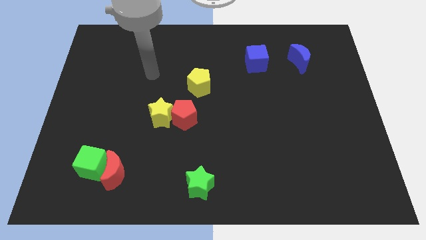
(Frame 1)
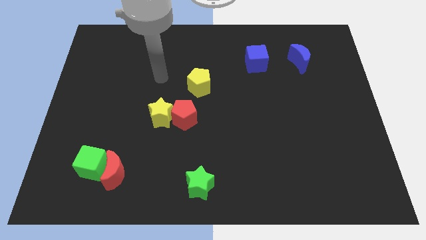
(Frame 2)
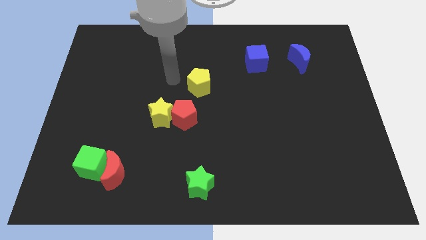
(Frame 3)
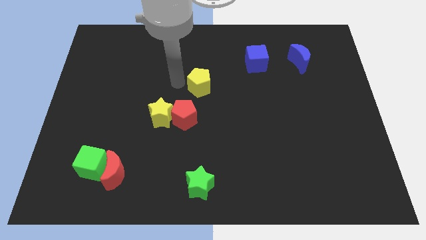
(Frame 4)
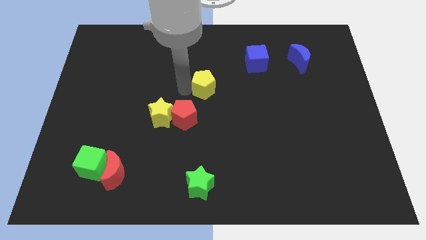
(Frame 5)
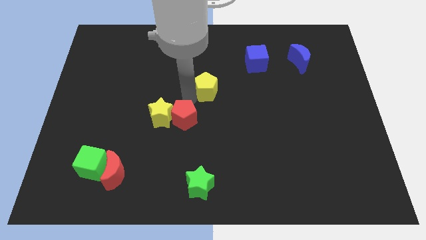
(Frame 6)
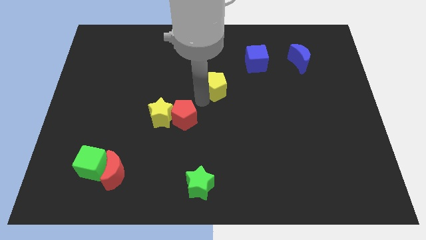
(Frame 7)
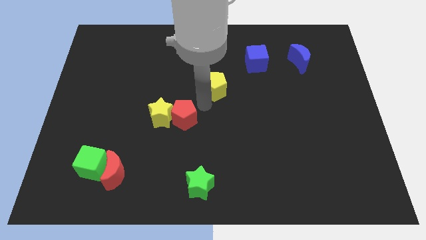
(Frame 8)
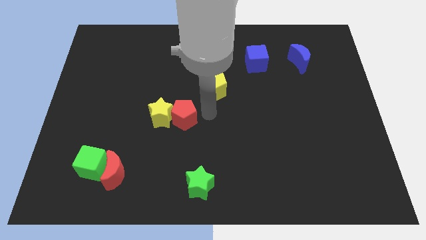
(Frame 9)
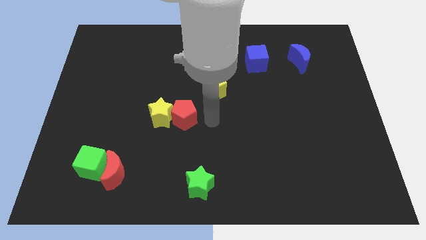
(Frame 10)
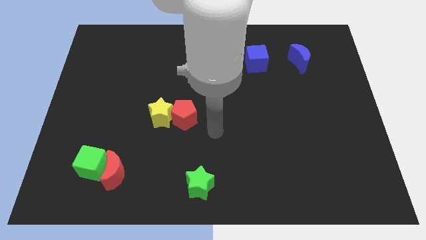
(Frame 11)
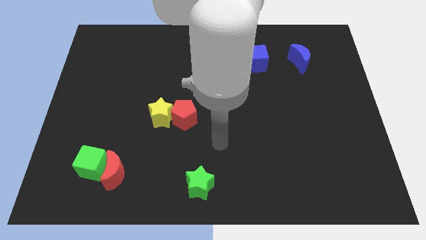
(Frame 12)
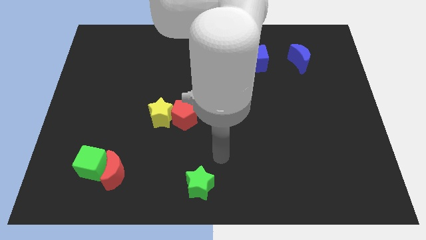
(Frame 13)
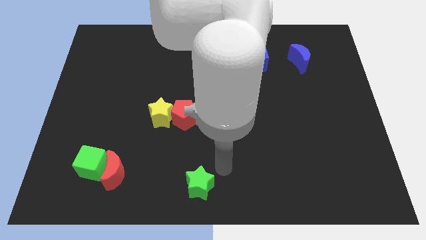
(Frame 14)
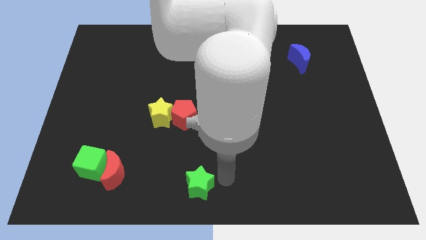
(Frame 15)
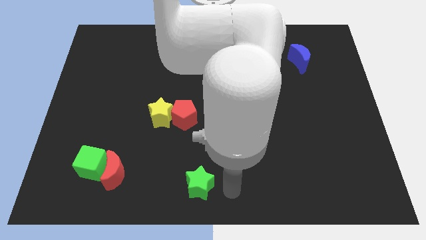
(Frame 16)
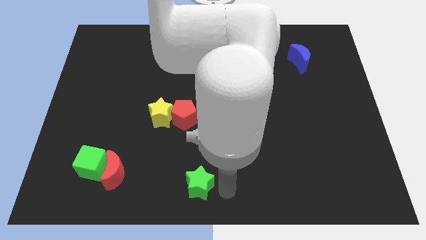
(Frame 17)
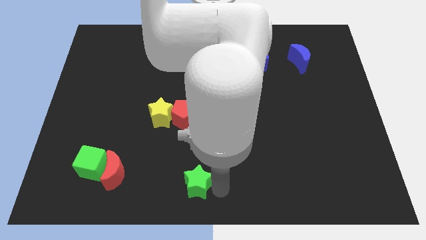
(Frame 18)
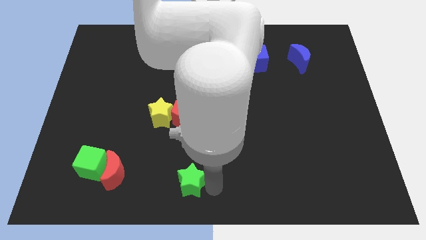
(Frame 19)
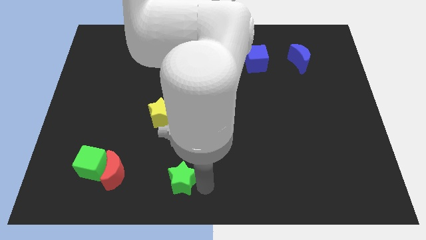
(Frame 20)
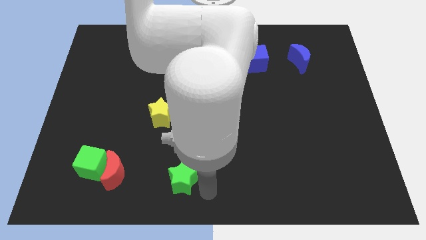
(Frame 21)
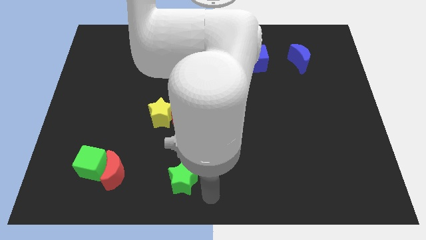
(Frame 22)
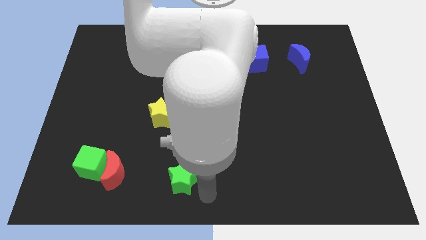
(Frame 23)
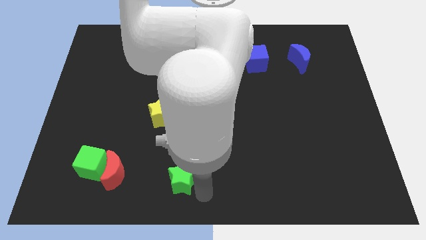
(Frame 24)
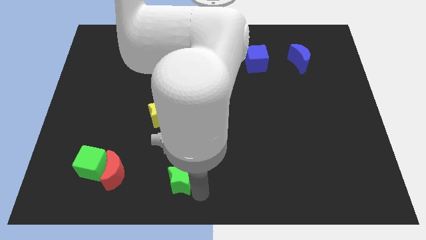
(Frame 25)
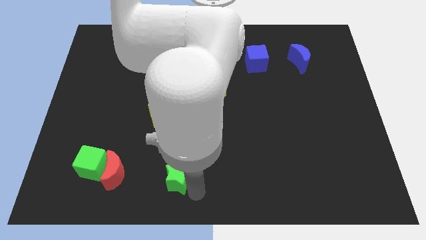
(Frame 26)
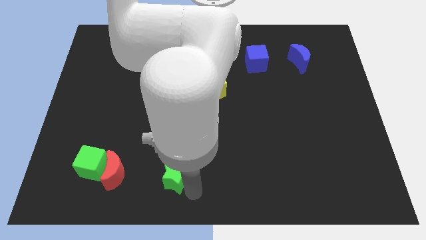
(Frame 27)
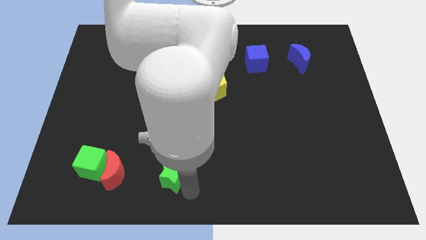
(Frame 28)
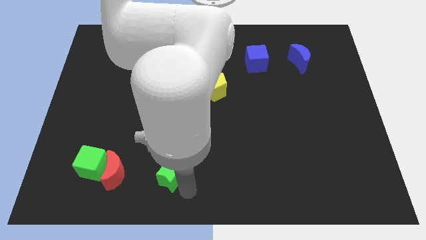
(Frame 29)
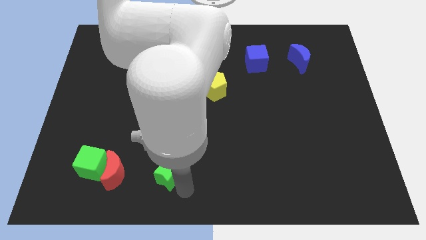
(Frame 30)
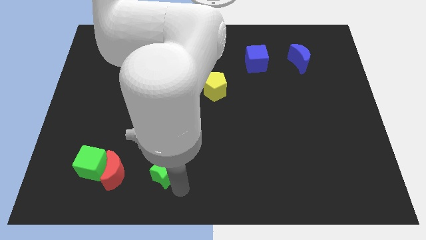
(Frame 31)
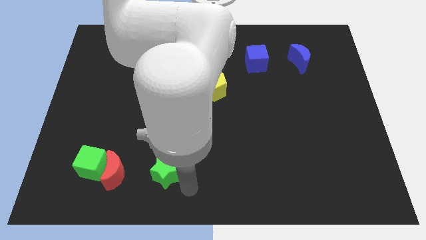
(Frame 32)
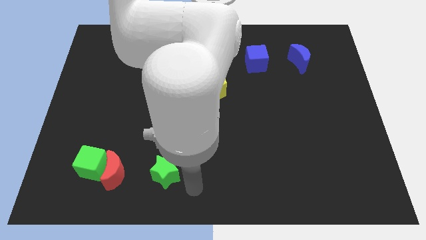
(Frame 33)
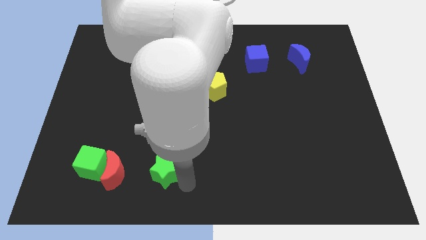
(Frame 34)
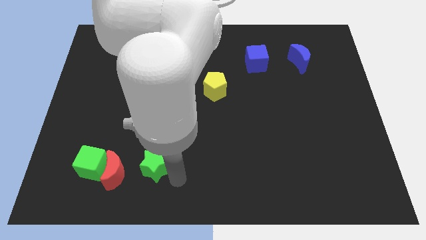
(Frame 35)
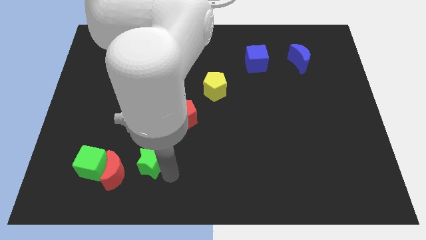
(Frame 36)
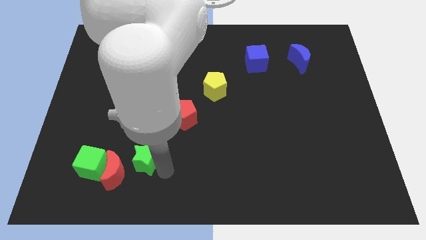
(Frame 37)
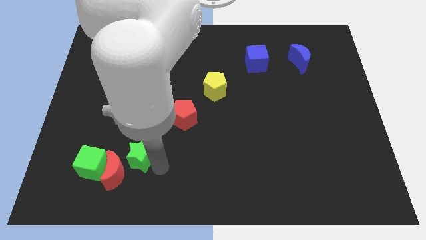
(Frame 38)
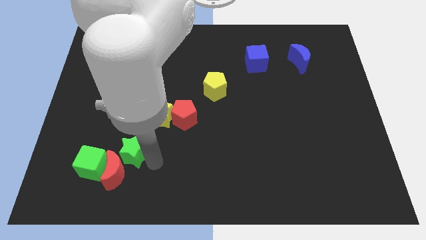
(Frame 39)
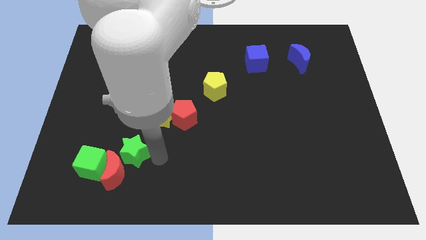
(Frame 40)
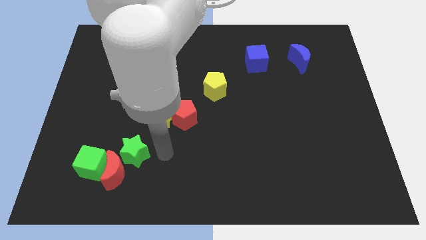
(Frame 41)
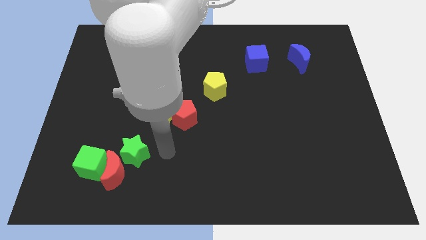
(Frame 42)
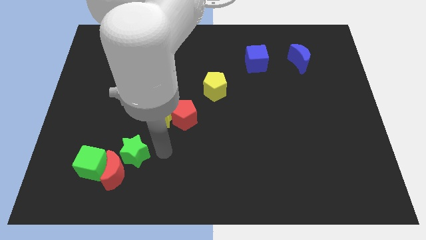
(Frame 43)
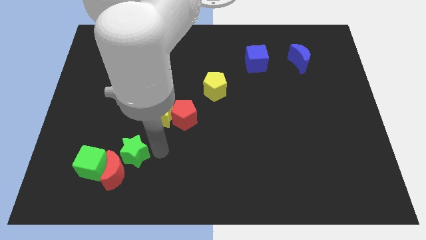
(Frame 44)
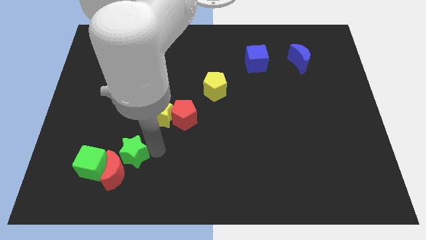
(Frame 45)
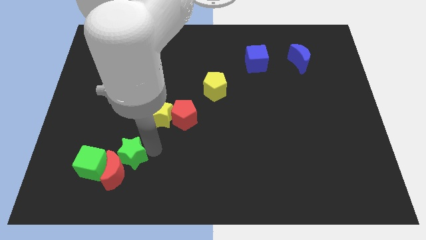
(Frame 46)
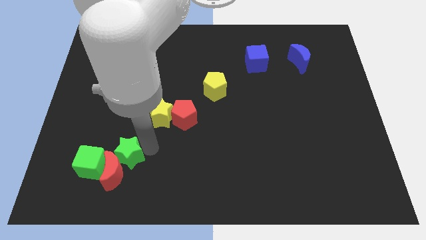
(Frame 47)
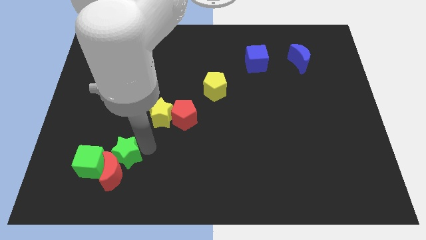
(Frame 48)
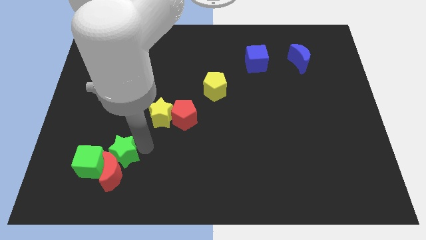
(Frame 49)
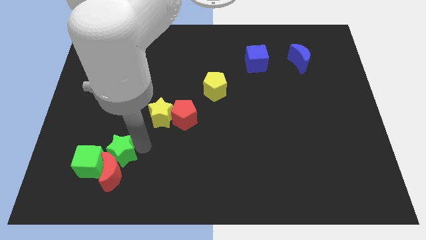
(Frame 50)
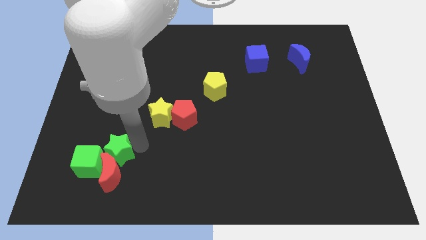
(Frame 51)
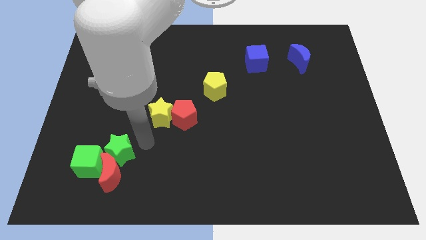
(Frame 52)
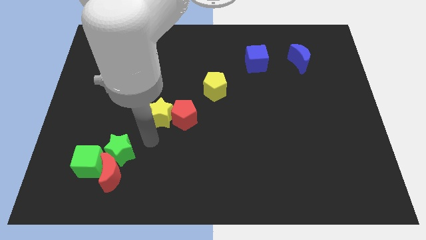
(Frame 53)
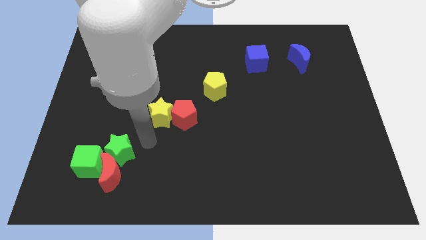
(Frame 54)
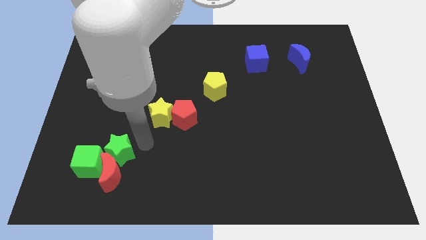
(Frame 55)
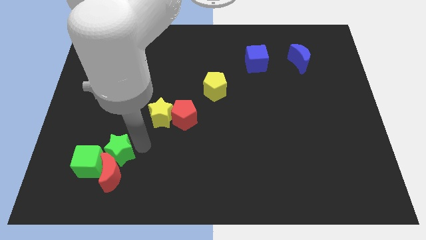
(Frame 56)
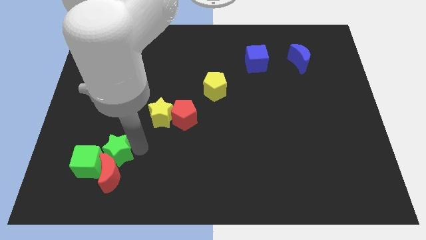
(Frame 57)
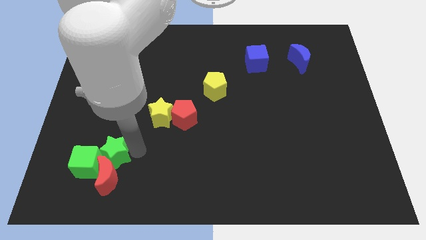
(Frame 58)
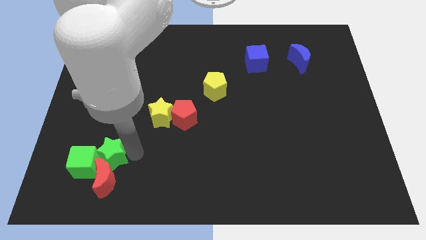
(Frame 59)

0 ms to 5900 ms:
put the green star close to the green cube

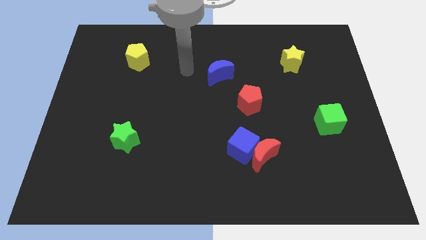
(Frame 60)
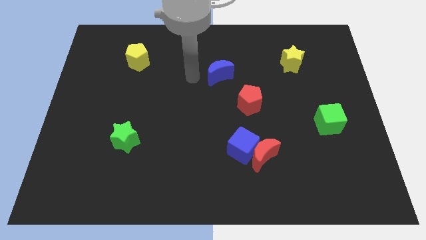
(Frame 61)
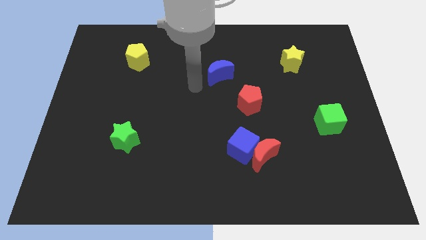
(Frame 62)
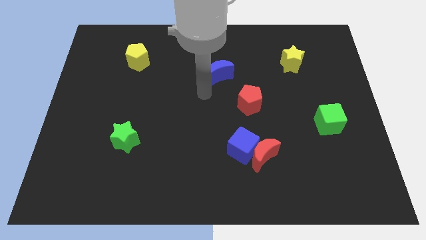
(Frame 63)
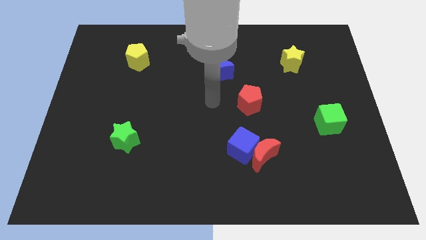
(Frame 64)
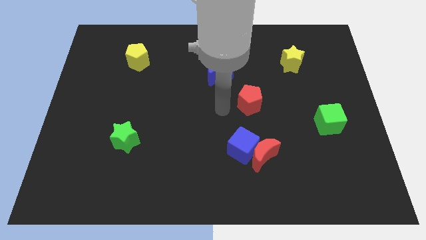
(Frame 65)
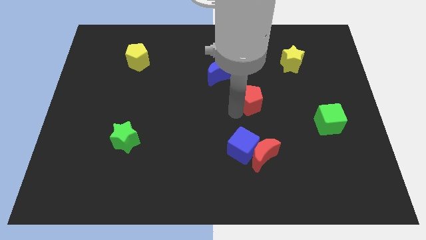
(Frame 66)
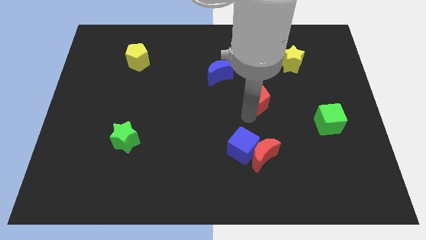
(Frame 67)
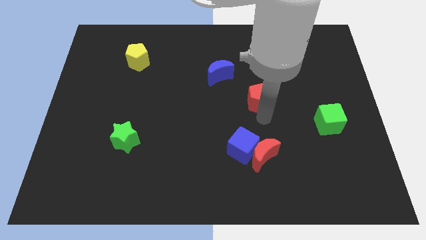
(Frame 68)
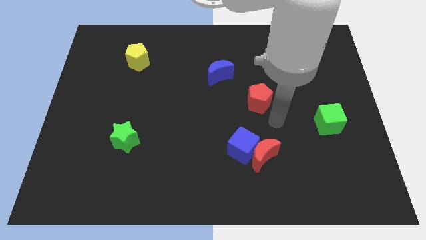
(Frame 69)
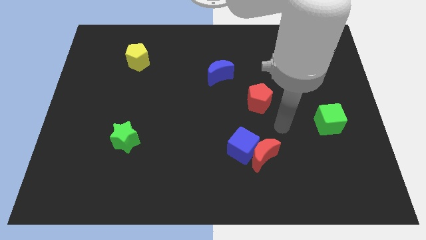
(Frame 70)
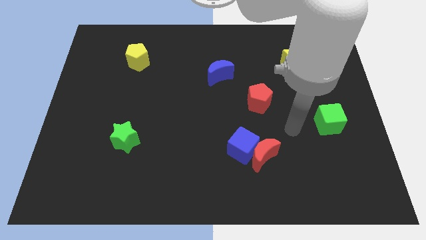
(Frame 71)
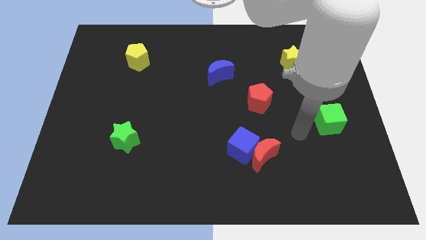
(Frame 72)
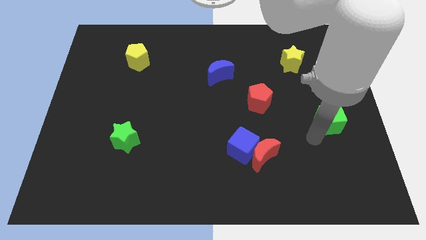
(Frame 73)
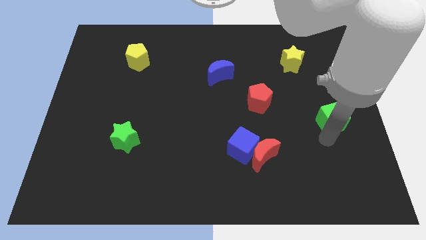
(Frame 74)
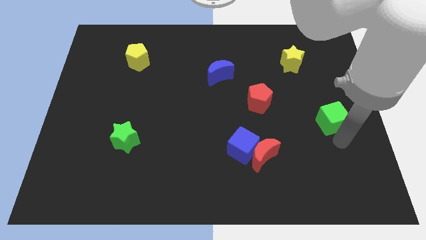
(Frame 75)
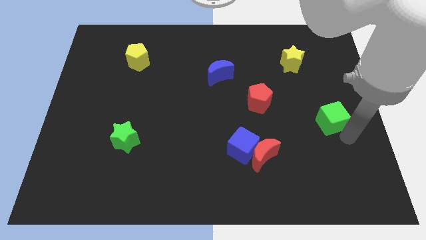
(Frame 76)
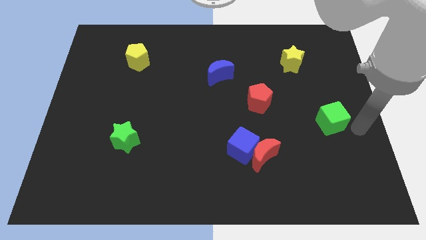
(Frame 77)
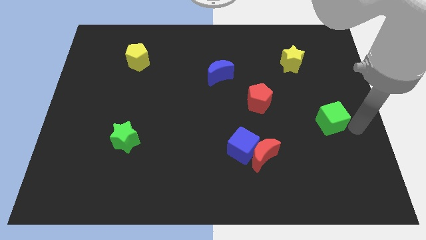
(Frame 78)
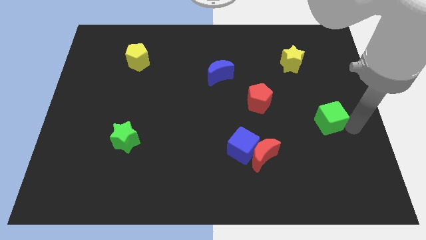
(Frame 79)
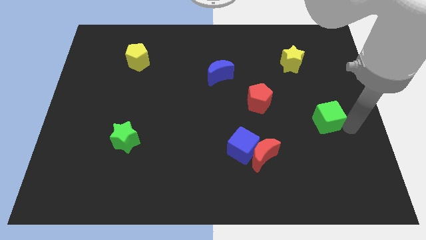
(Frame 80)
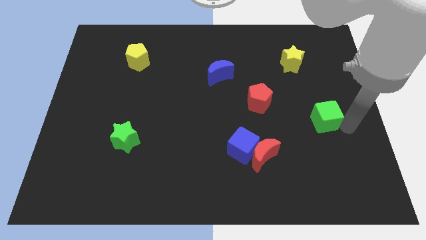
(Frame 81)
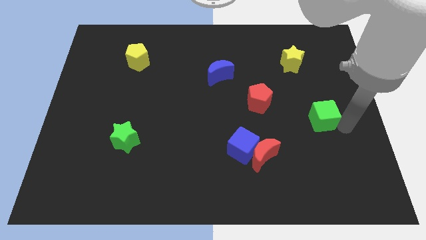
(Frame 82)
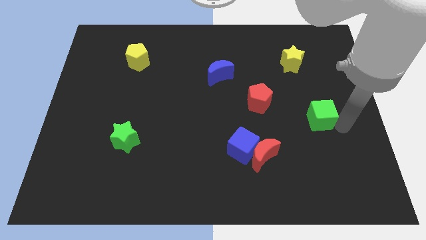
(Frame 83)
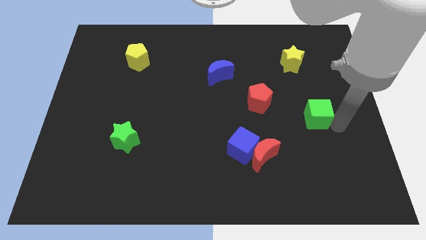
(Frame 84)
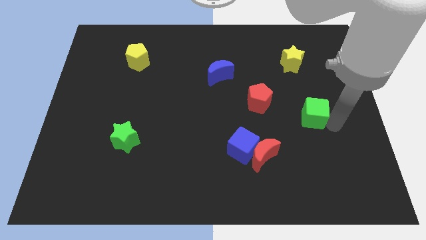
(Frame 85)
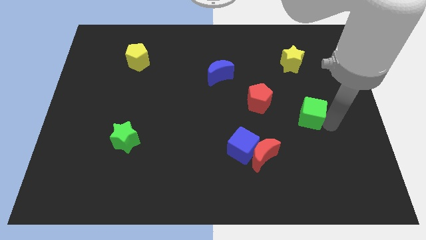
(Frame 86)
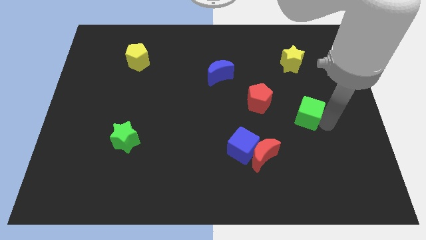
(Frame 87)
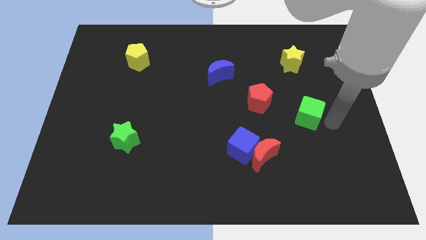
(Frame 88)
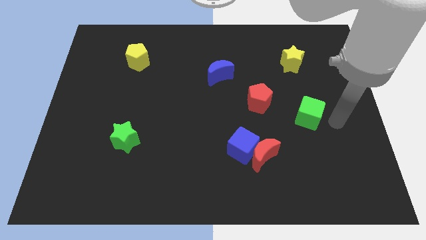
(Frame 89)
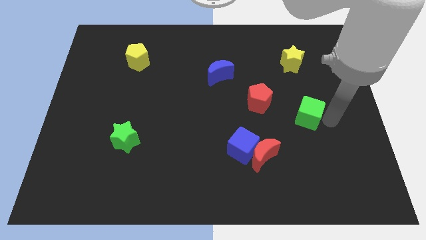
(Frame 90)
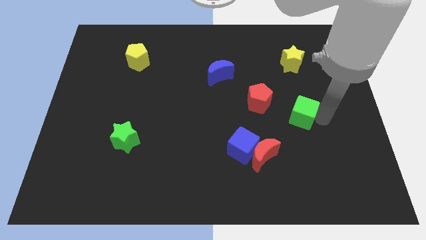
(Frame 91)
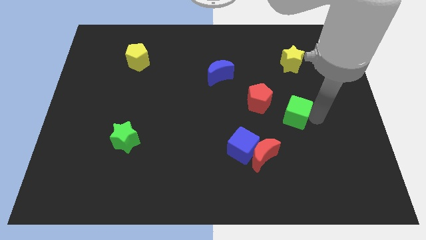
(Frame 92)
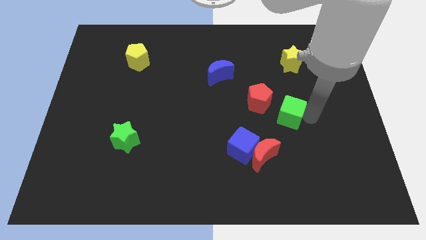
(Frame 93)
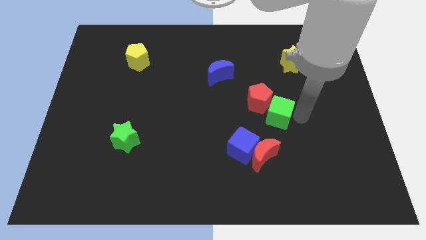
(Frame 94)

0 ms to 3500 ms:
move the green cube close to the red pentagon
